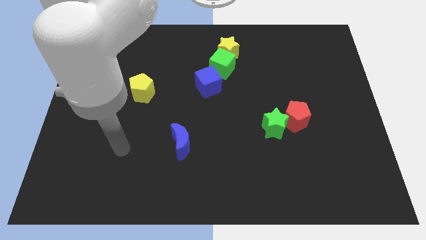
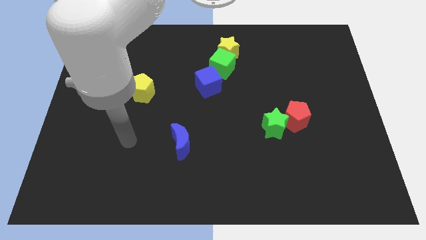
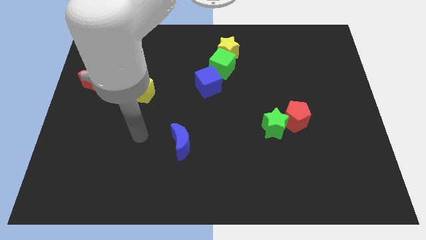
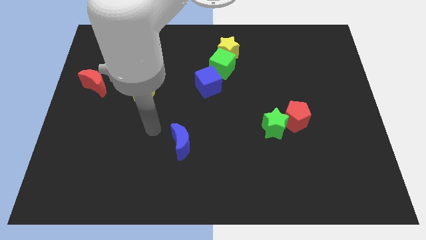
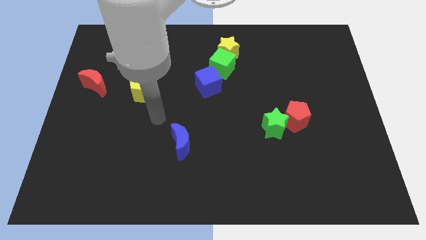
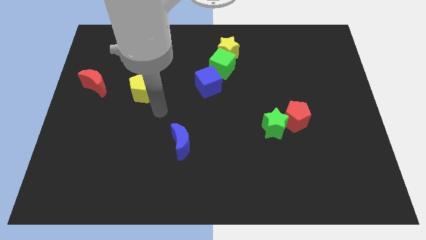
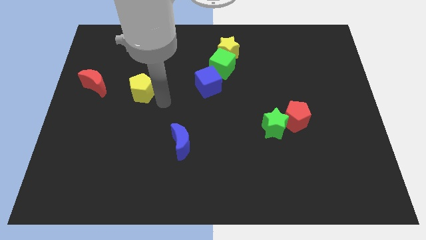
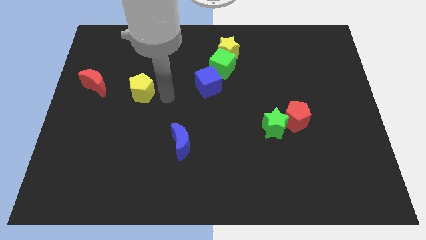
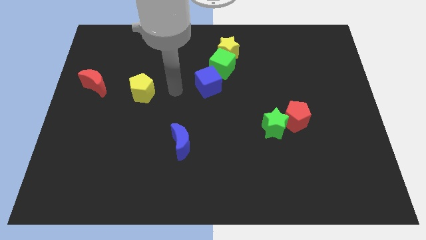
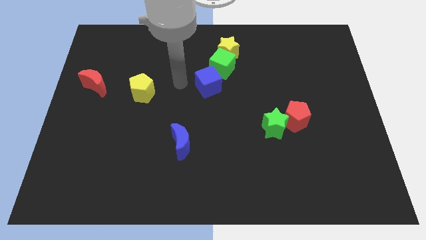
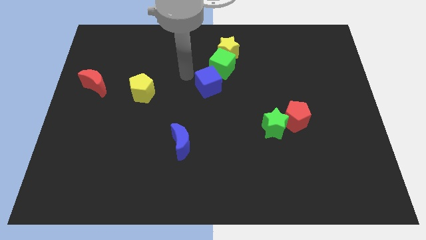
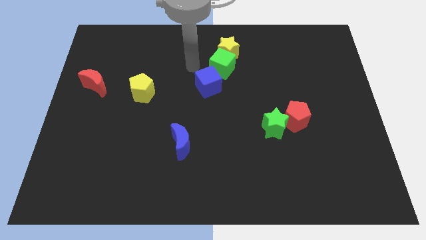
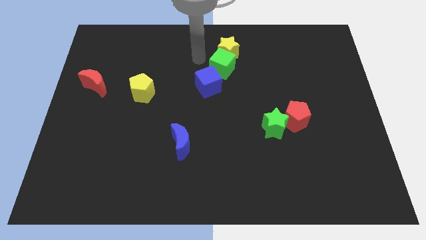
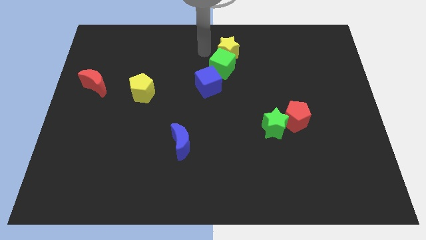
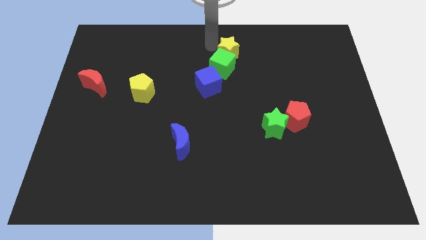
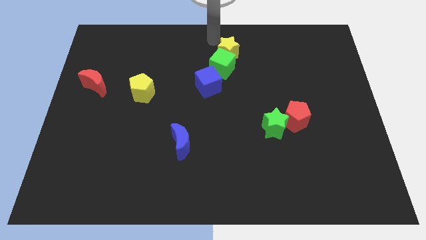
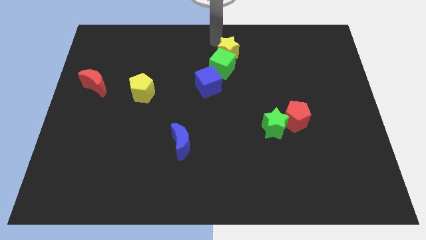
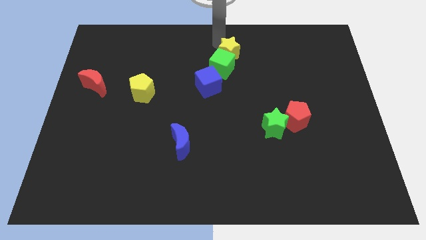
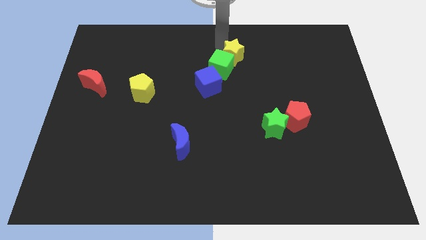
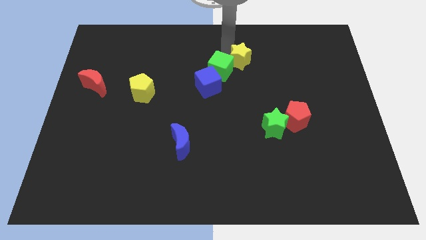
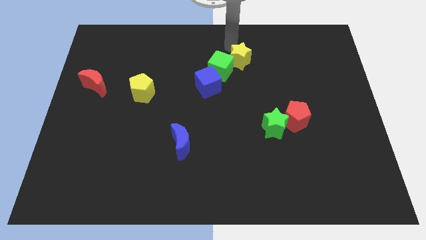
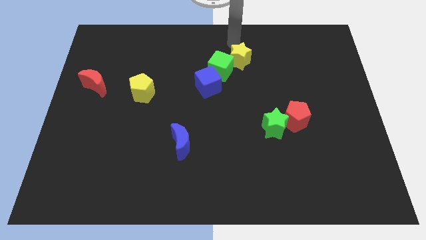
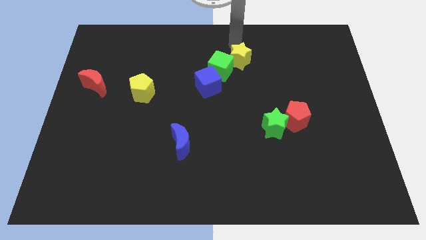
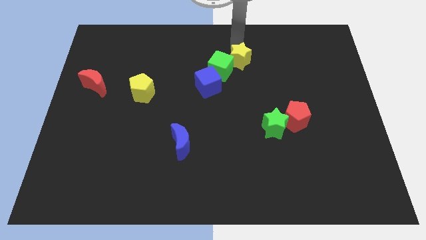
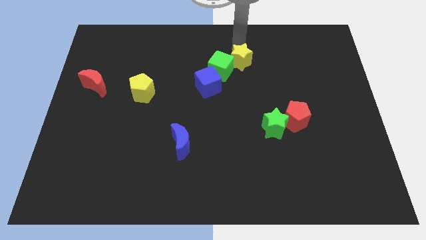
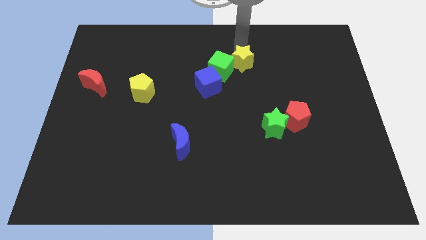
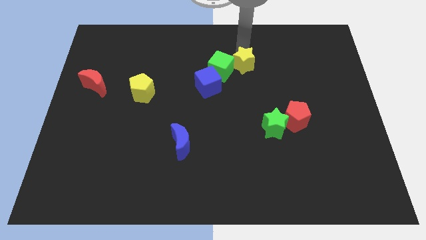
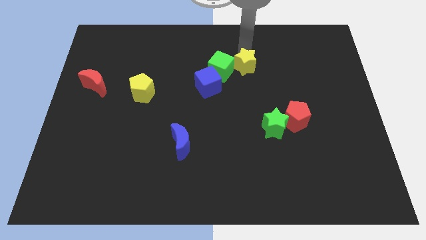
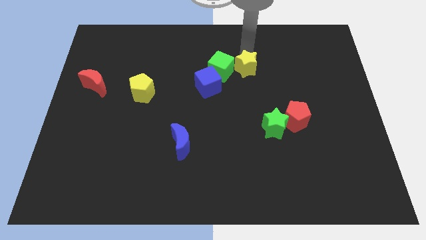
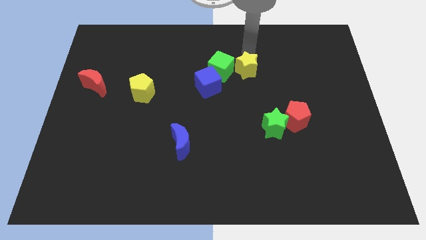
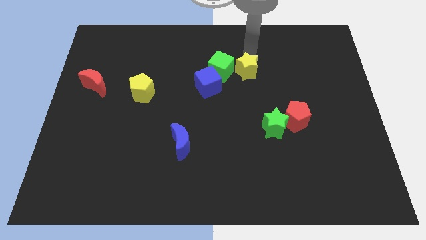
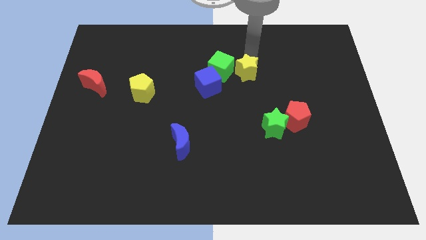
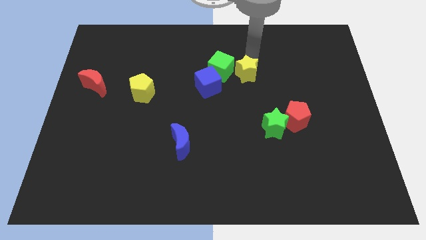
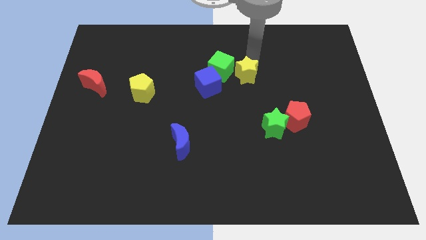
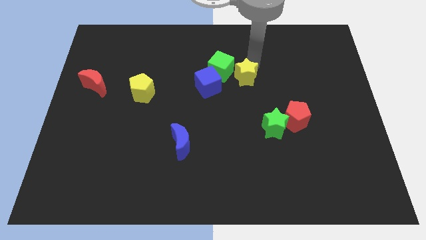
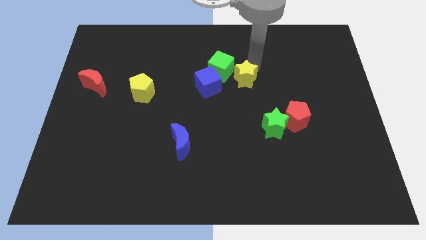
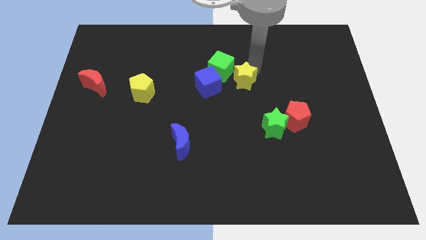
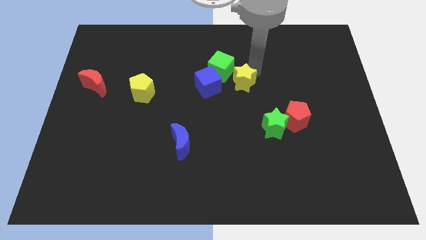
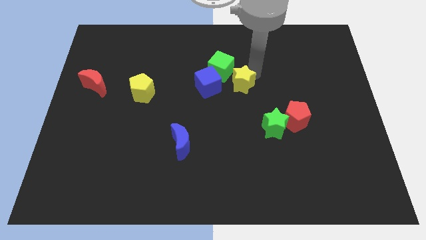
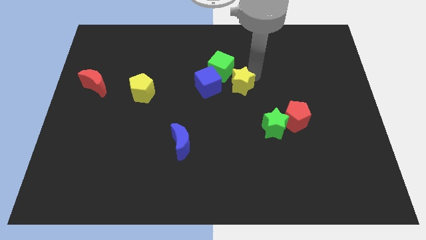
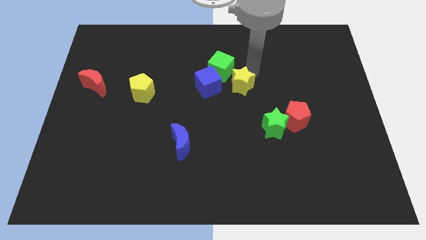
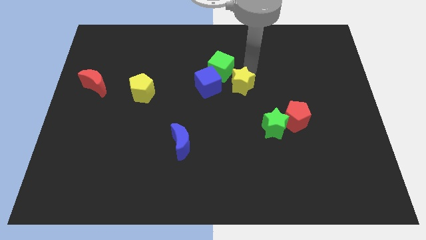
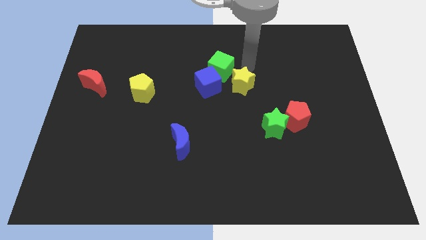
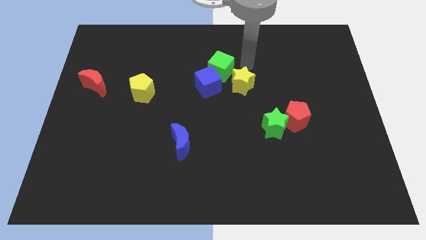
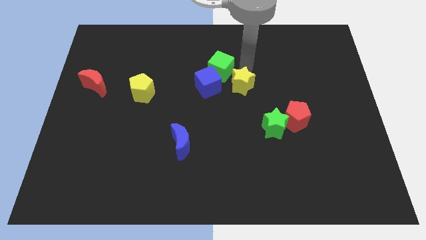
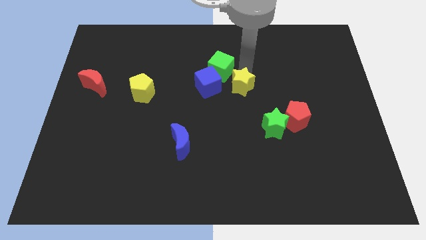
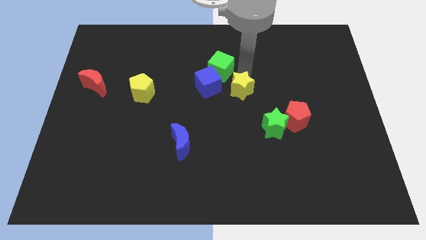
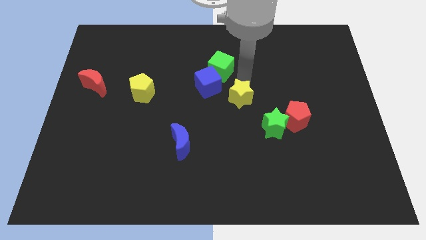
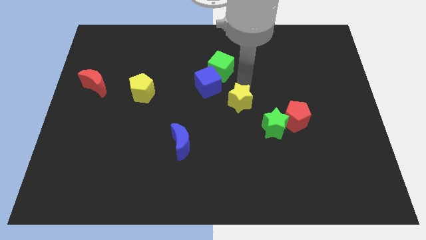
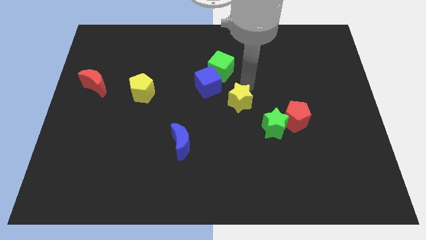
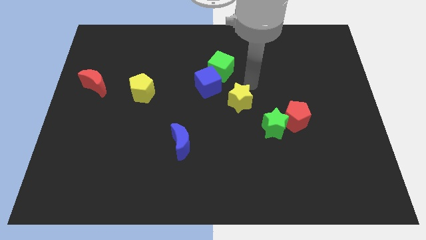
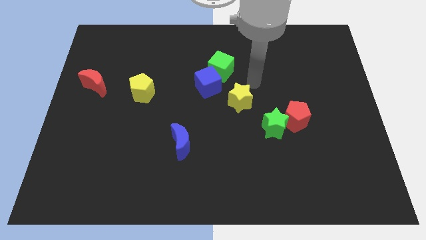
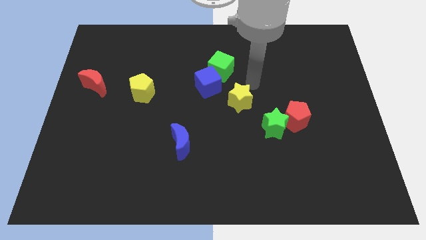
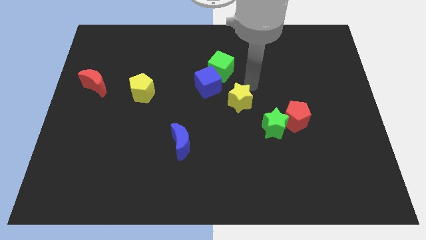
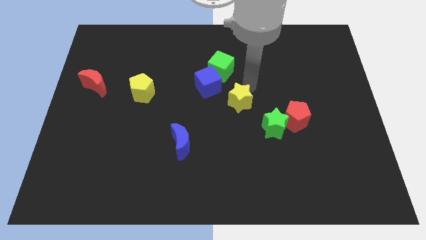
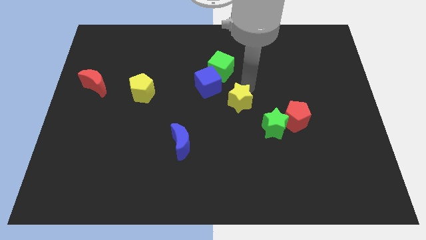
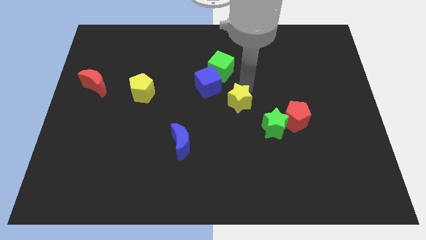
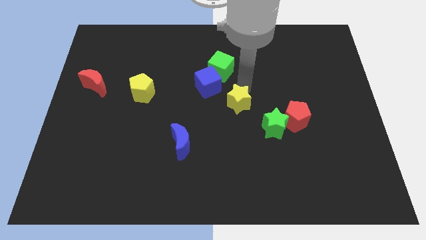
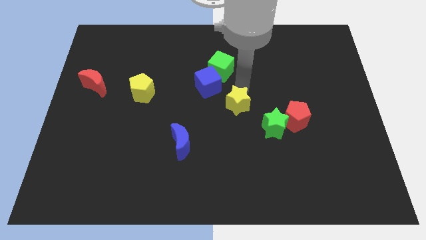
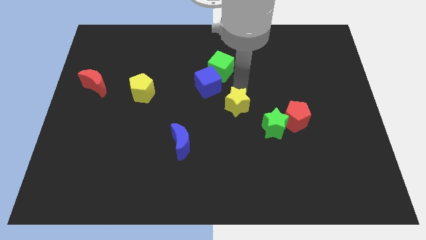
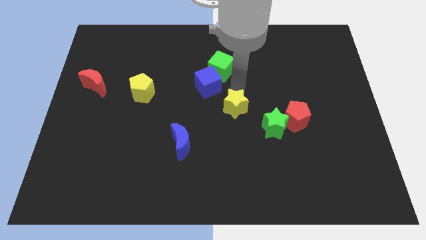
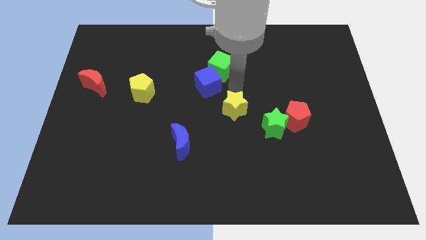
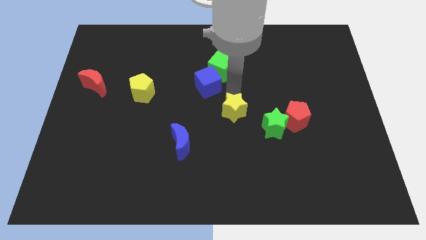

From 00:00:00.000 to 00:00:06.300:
put the yellow star to the left side of the green star
